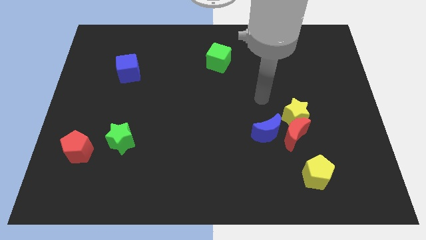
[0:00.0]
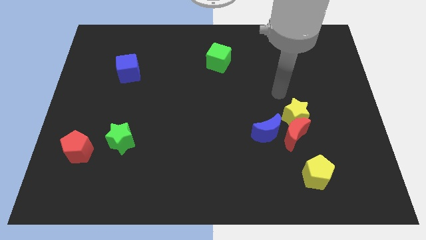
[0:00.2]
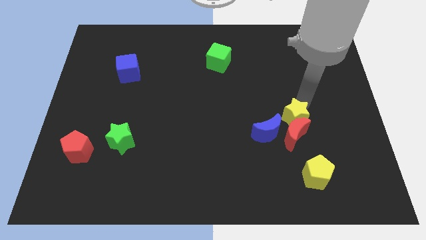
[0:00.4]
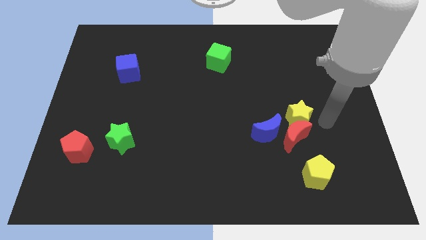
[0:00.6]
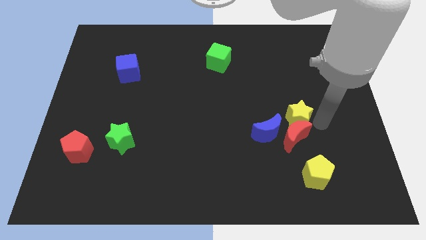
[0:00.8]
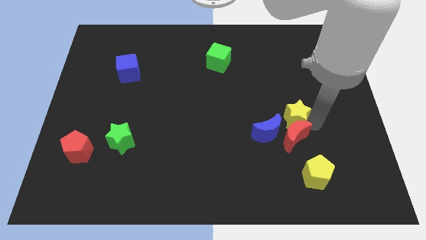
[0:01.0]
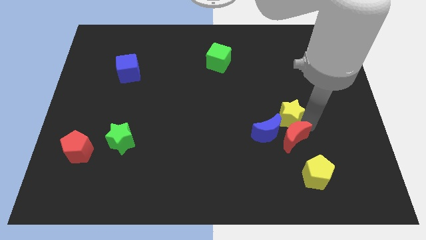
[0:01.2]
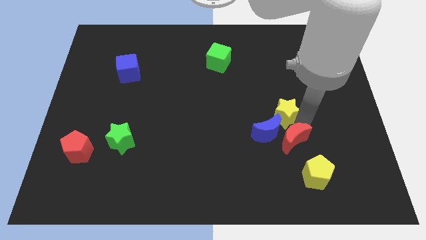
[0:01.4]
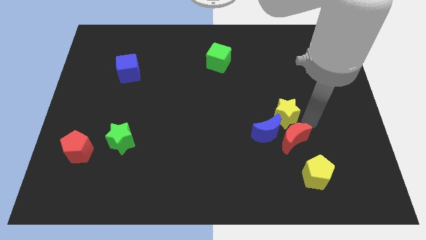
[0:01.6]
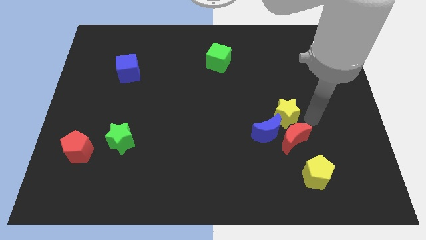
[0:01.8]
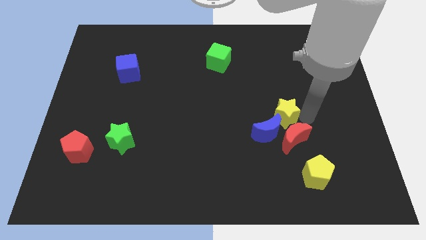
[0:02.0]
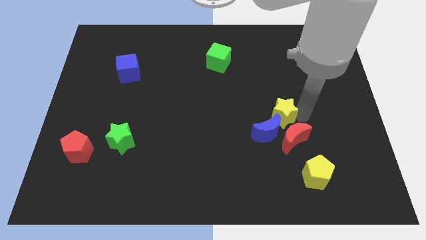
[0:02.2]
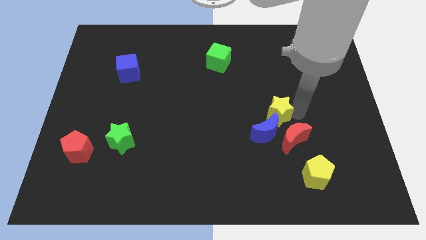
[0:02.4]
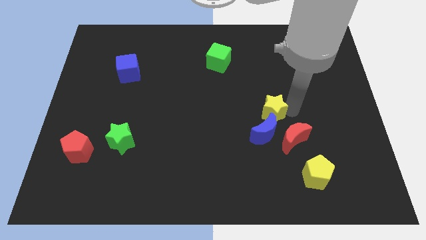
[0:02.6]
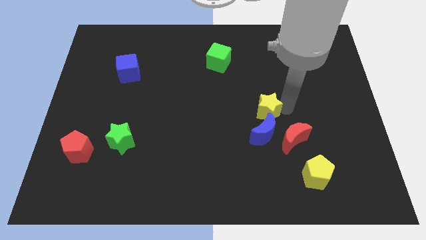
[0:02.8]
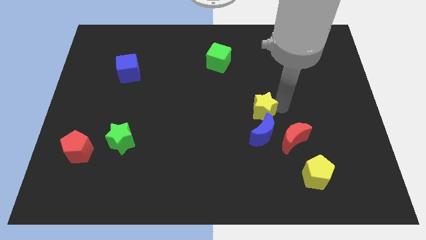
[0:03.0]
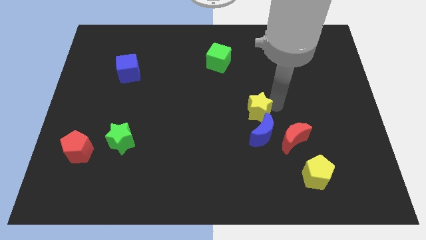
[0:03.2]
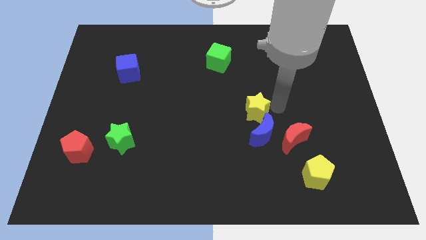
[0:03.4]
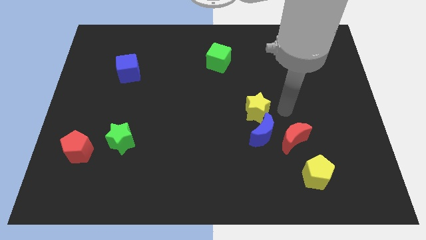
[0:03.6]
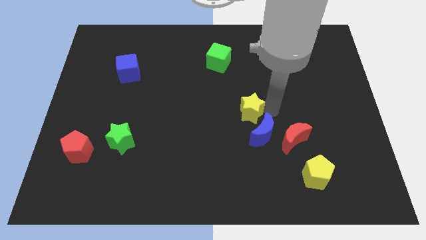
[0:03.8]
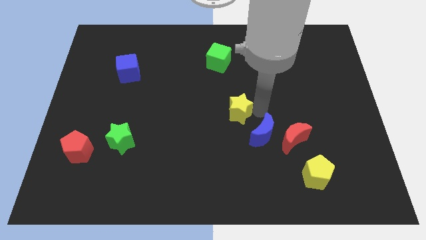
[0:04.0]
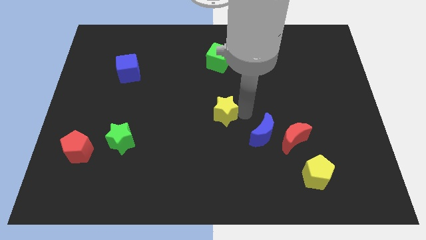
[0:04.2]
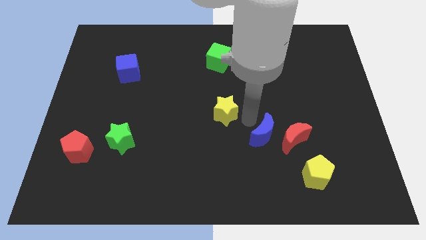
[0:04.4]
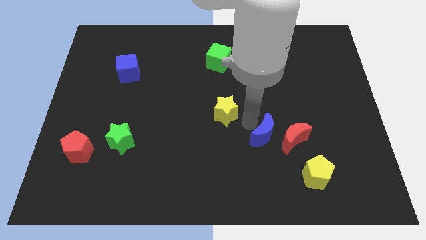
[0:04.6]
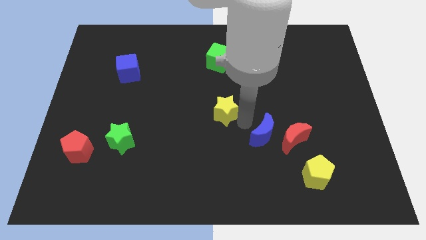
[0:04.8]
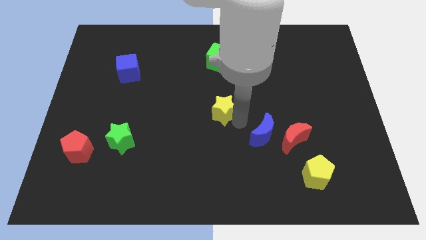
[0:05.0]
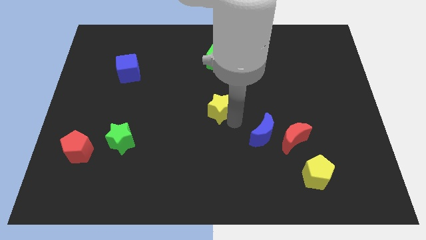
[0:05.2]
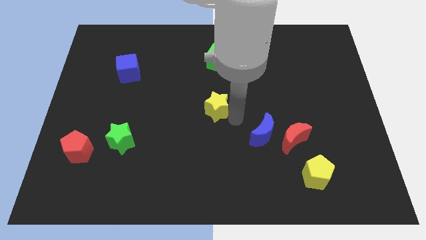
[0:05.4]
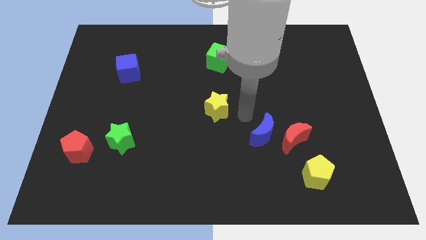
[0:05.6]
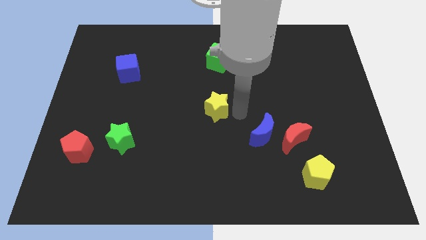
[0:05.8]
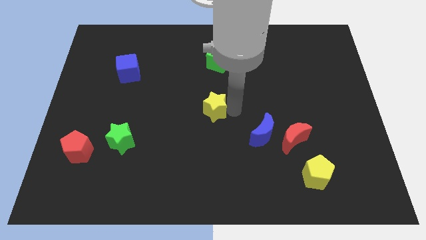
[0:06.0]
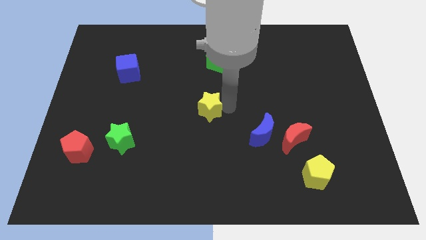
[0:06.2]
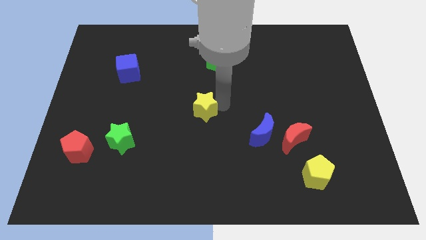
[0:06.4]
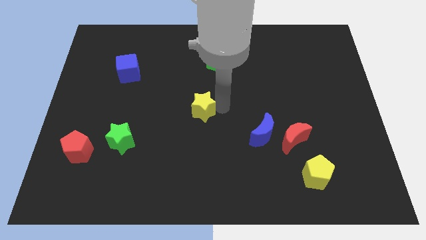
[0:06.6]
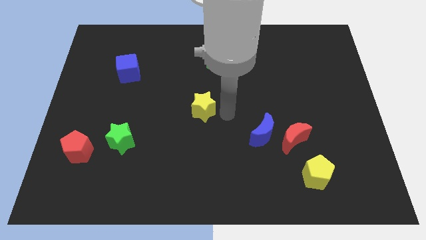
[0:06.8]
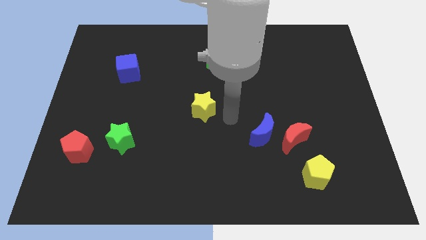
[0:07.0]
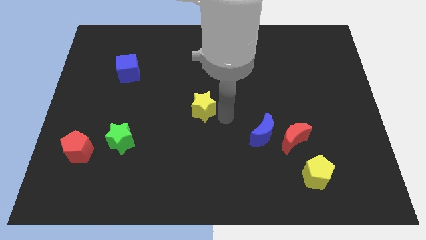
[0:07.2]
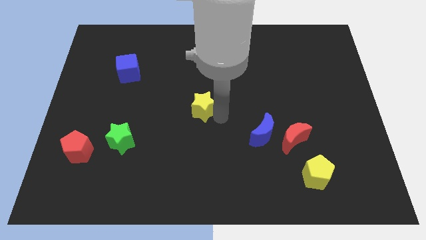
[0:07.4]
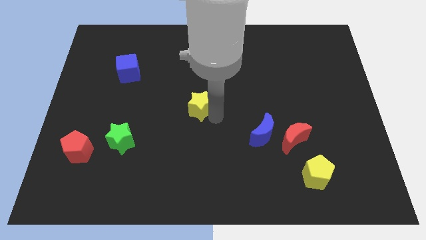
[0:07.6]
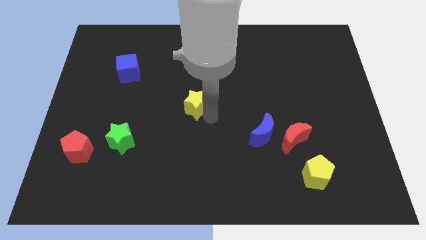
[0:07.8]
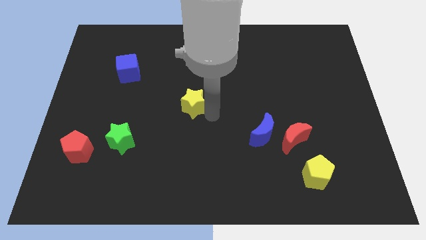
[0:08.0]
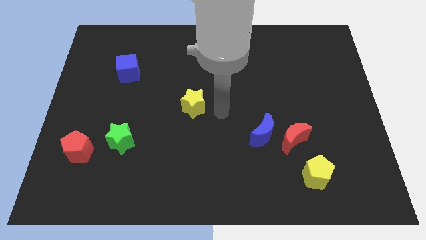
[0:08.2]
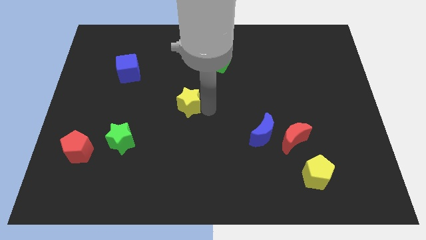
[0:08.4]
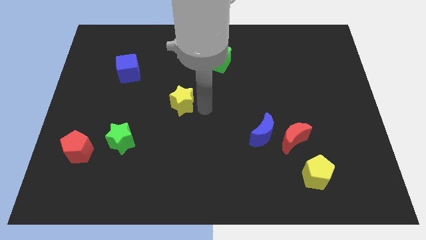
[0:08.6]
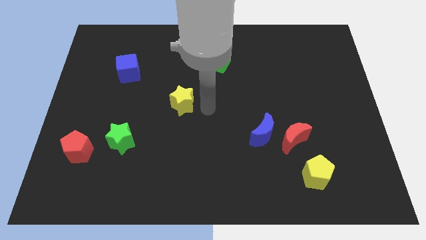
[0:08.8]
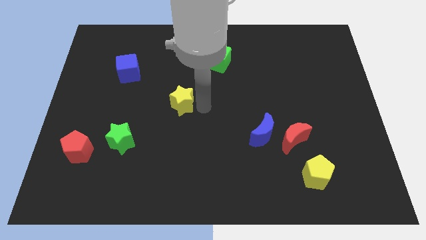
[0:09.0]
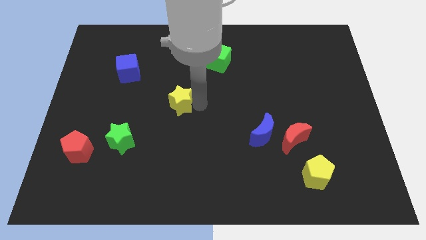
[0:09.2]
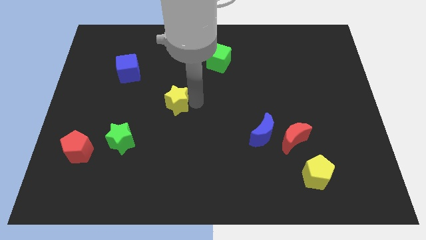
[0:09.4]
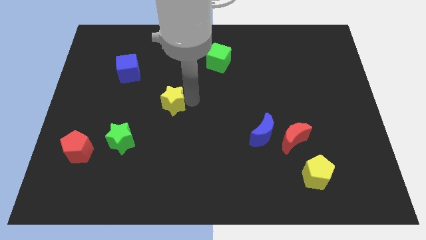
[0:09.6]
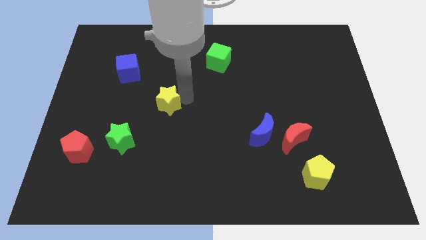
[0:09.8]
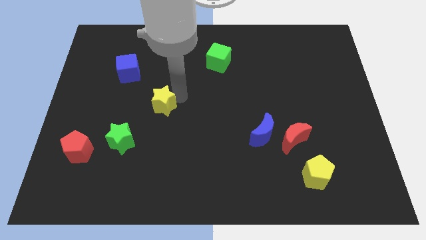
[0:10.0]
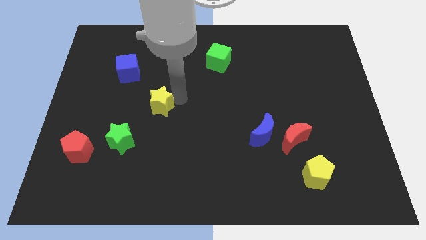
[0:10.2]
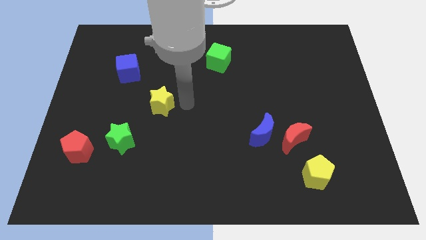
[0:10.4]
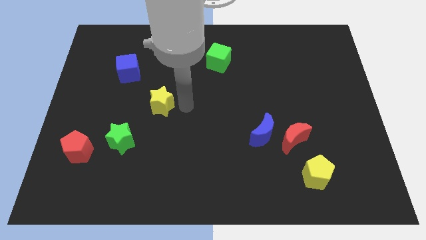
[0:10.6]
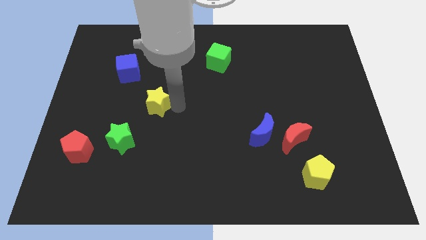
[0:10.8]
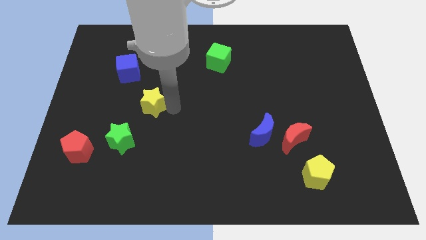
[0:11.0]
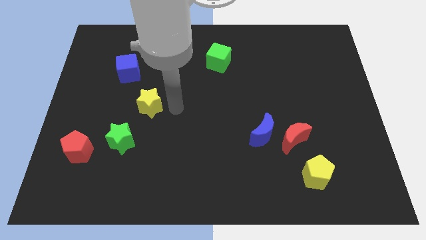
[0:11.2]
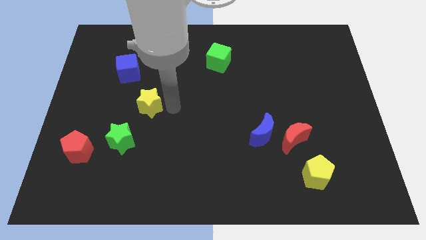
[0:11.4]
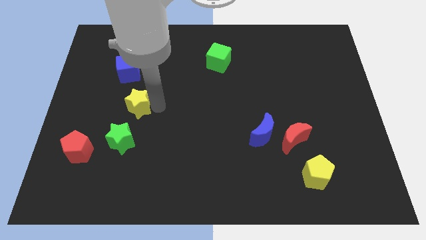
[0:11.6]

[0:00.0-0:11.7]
put the yellow star to the bottom of the blue cube

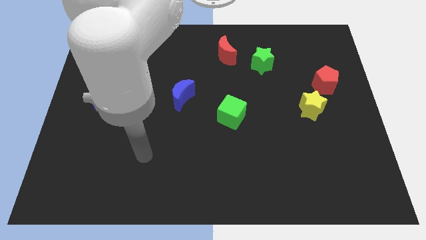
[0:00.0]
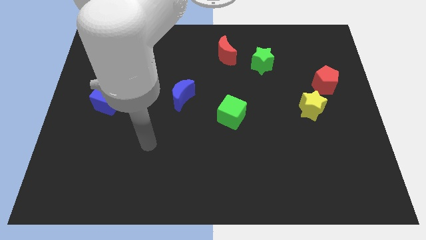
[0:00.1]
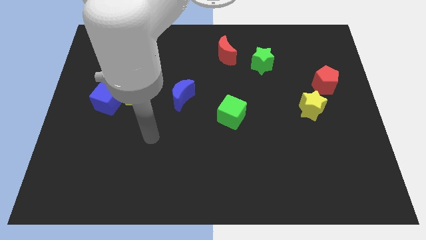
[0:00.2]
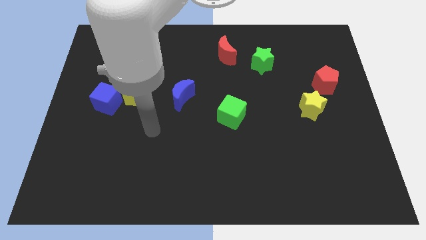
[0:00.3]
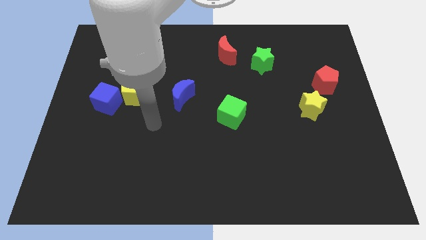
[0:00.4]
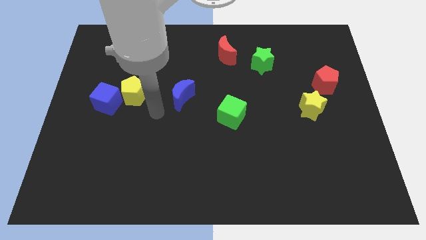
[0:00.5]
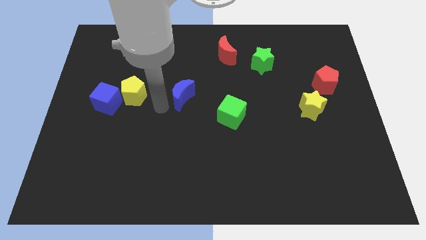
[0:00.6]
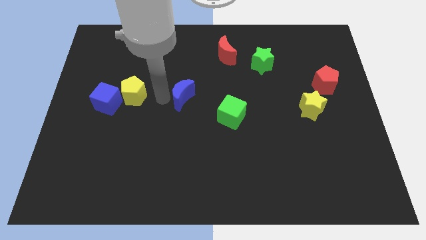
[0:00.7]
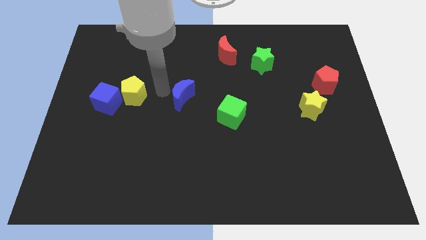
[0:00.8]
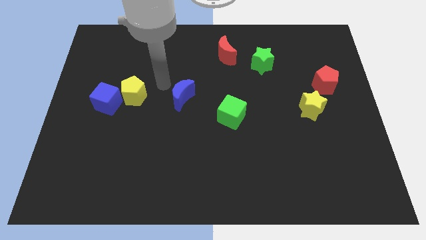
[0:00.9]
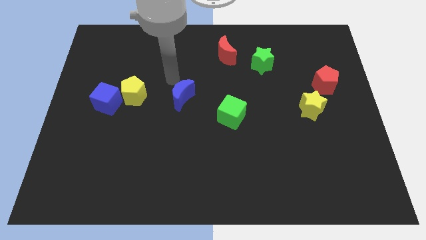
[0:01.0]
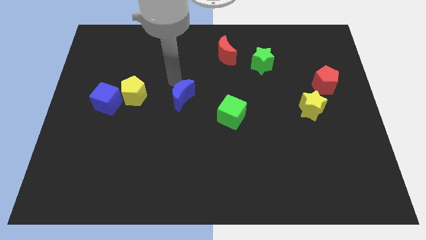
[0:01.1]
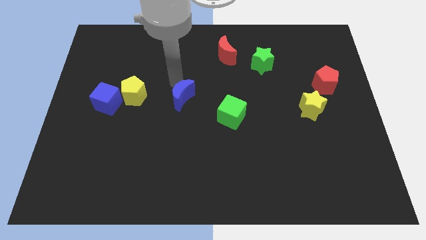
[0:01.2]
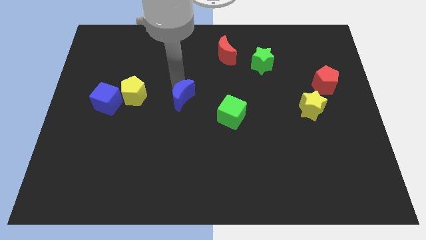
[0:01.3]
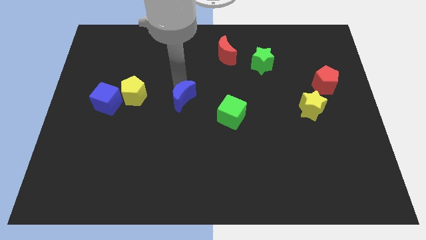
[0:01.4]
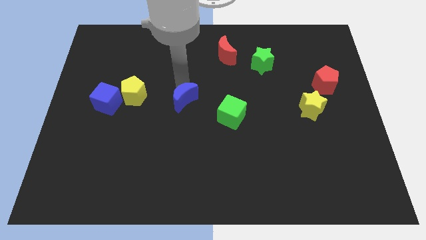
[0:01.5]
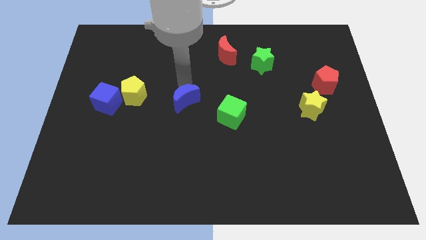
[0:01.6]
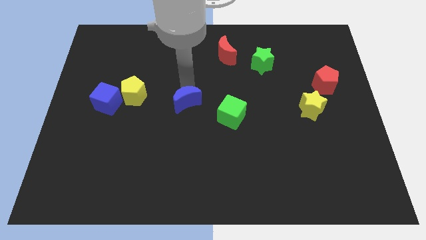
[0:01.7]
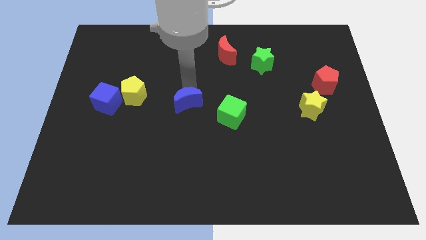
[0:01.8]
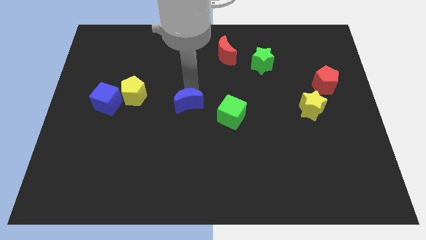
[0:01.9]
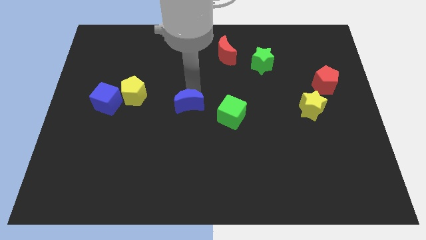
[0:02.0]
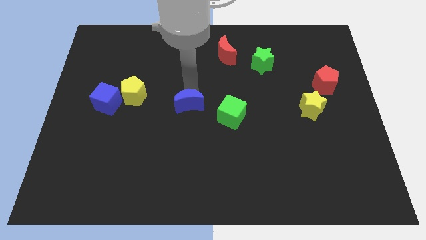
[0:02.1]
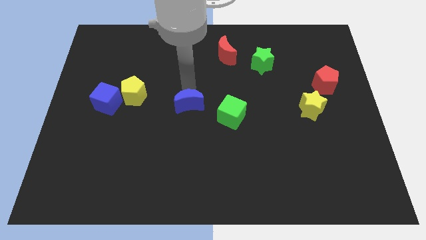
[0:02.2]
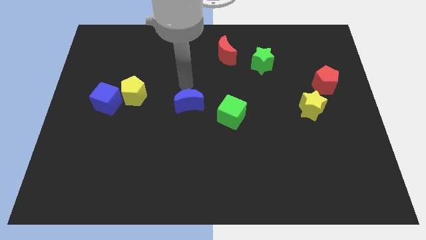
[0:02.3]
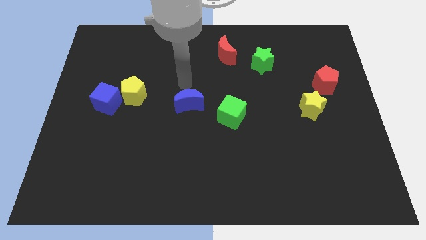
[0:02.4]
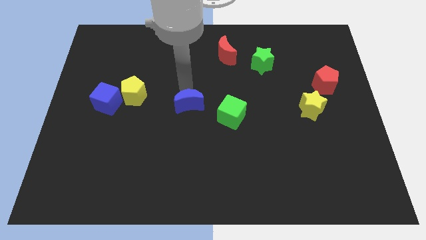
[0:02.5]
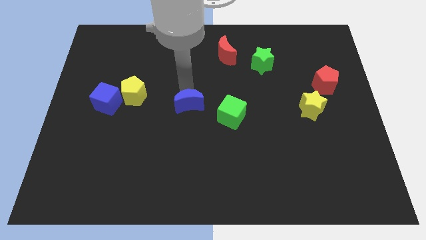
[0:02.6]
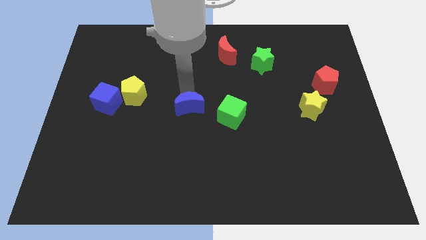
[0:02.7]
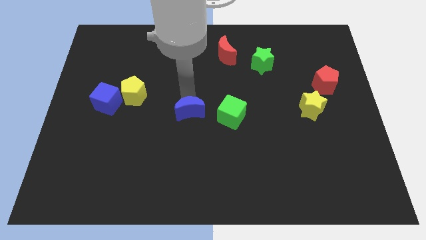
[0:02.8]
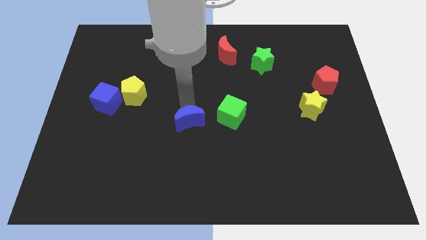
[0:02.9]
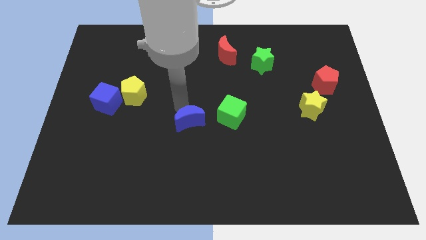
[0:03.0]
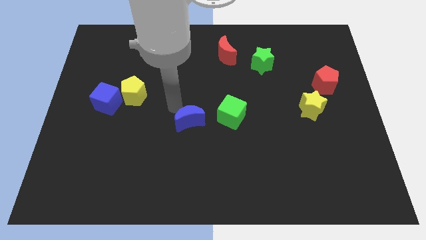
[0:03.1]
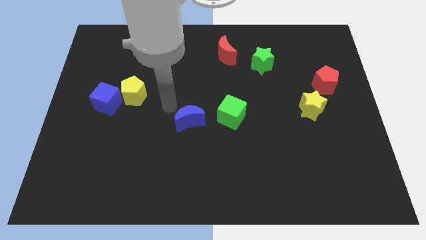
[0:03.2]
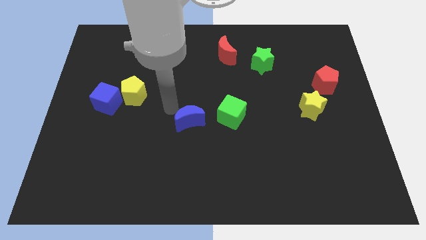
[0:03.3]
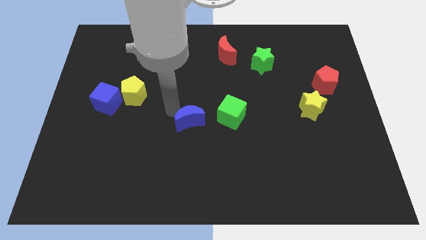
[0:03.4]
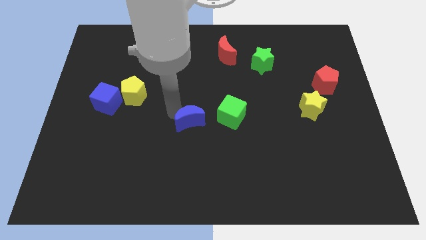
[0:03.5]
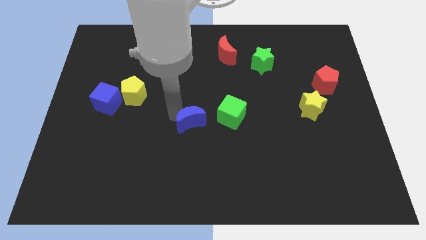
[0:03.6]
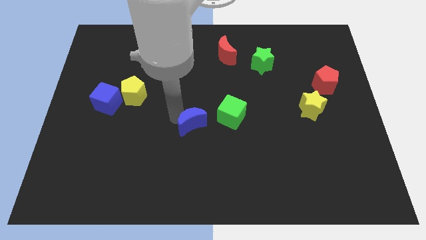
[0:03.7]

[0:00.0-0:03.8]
push the blue moon diagonally down and to the left of the green cube
